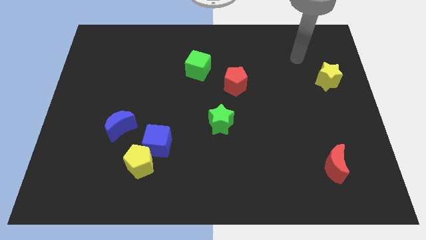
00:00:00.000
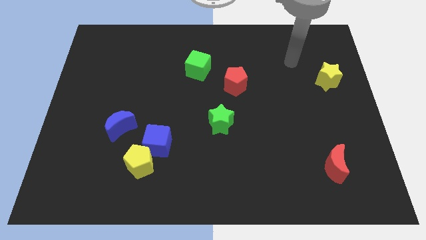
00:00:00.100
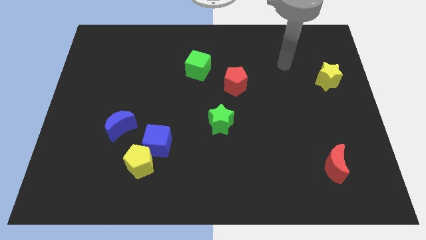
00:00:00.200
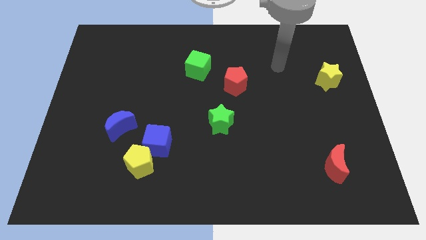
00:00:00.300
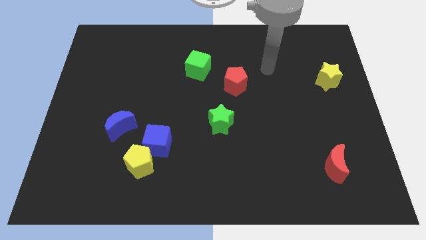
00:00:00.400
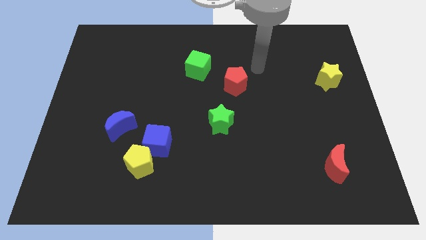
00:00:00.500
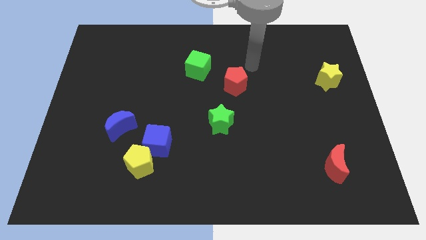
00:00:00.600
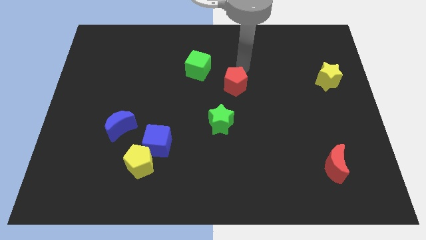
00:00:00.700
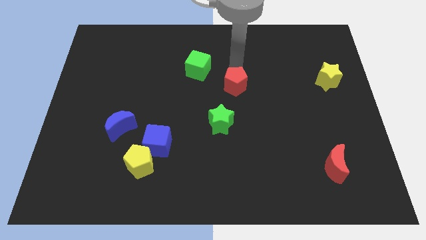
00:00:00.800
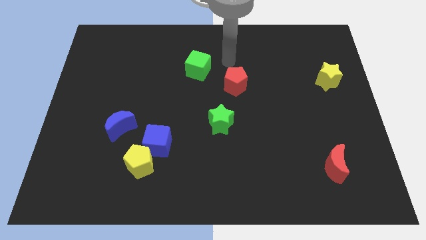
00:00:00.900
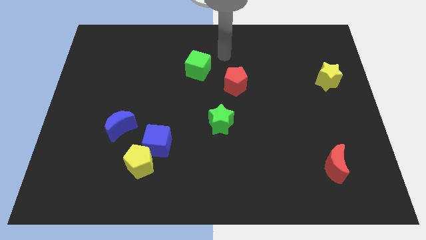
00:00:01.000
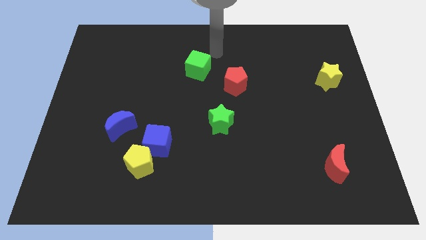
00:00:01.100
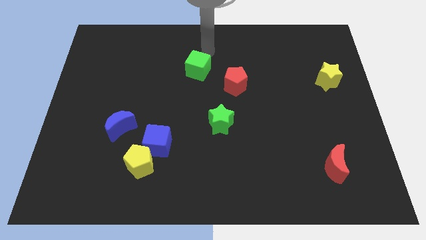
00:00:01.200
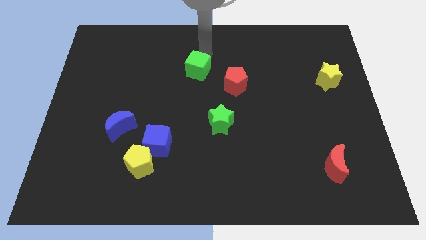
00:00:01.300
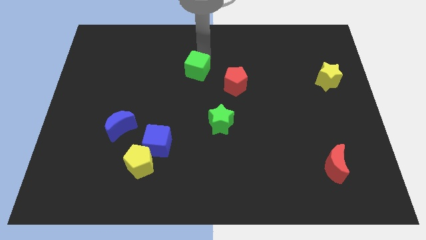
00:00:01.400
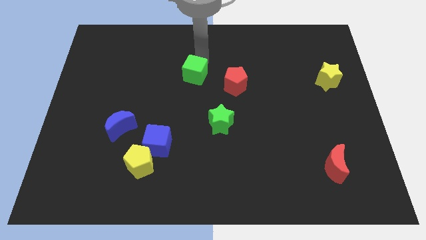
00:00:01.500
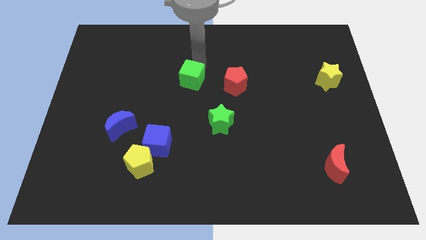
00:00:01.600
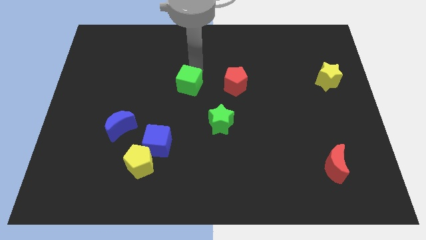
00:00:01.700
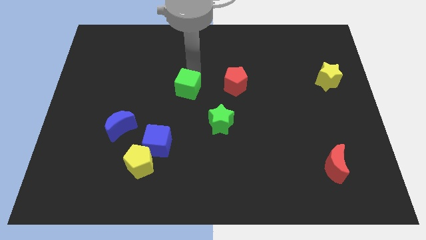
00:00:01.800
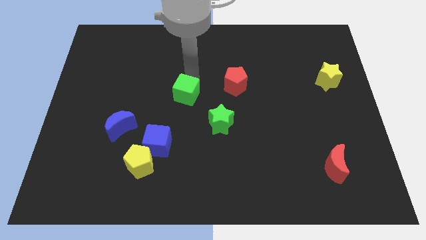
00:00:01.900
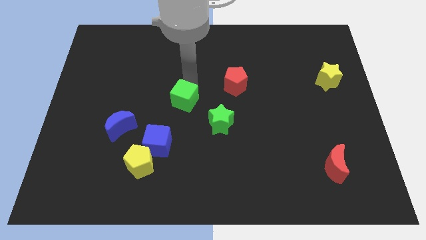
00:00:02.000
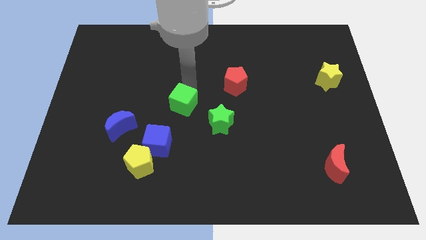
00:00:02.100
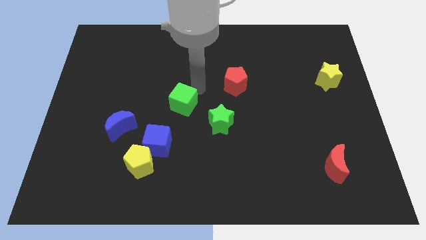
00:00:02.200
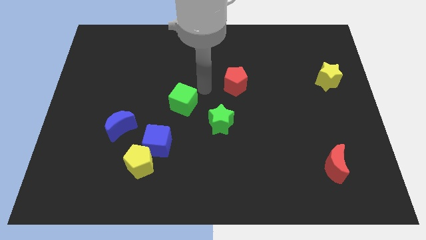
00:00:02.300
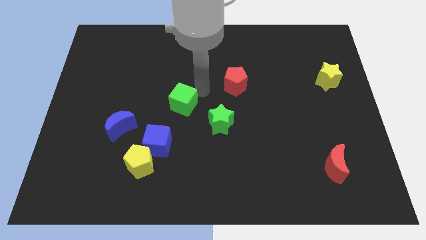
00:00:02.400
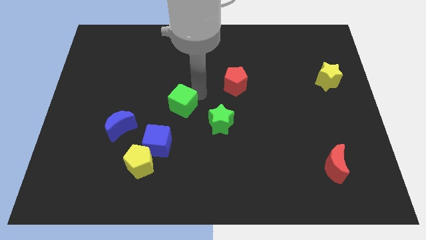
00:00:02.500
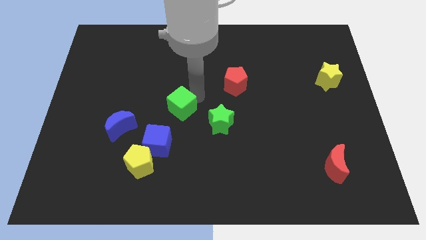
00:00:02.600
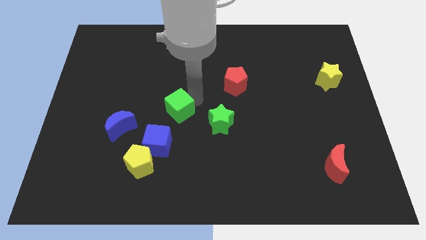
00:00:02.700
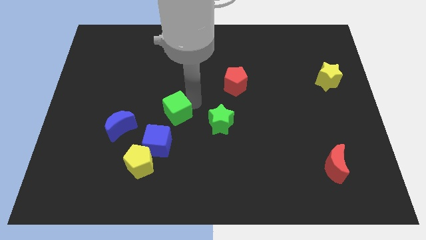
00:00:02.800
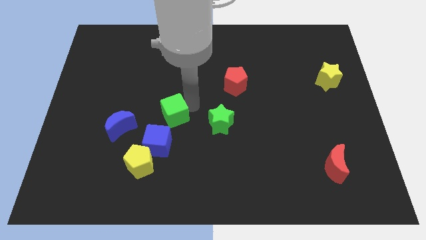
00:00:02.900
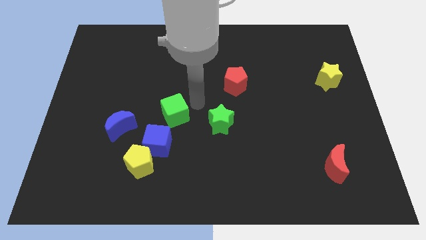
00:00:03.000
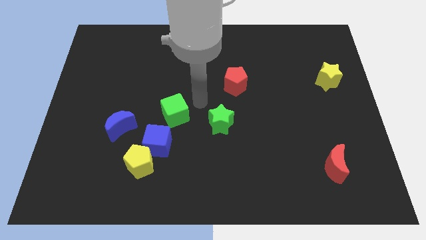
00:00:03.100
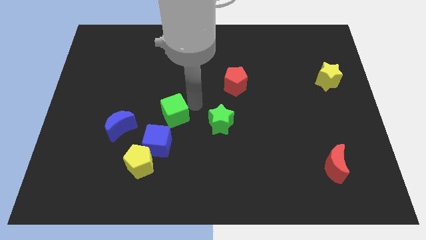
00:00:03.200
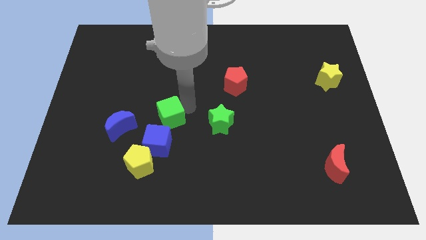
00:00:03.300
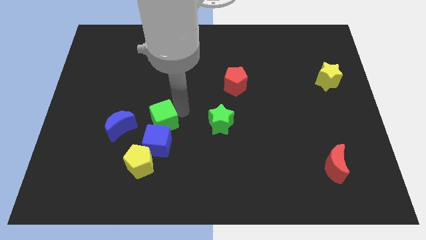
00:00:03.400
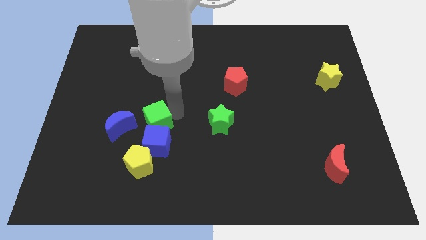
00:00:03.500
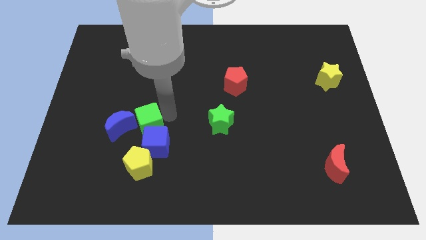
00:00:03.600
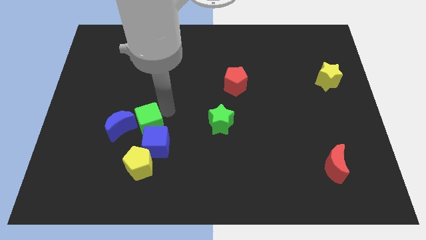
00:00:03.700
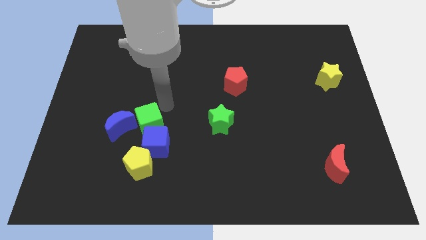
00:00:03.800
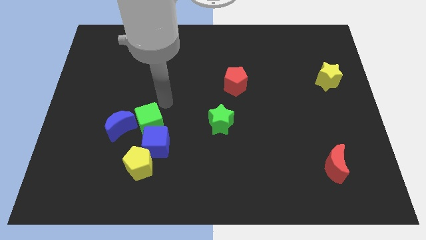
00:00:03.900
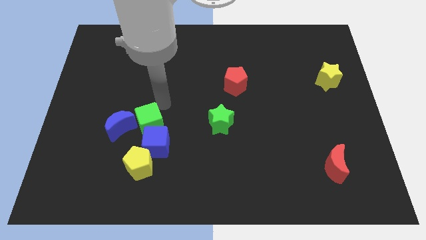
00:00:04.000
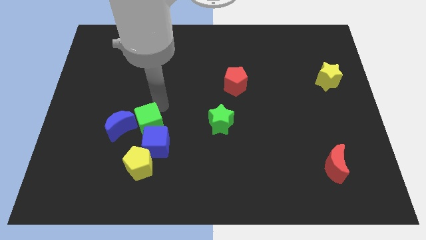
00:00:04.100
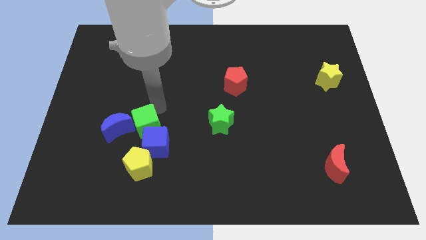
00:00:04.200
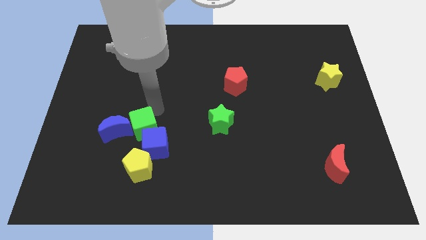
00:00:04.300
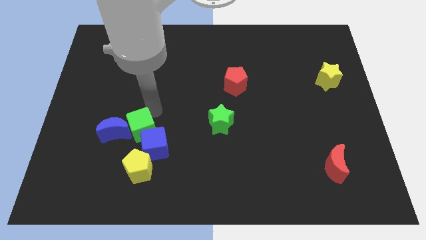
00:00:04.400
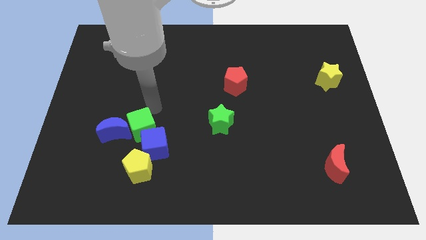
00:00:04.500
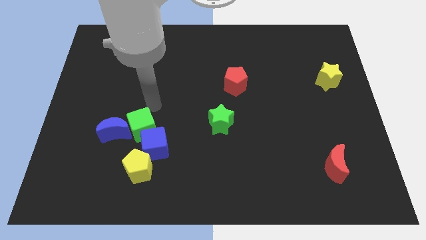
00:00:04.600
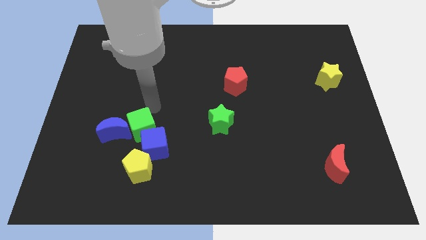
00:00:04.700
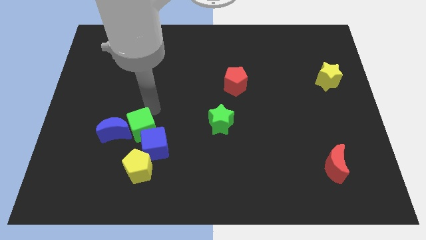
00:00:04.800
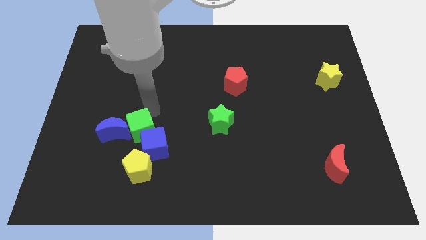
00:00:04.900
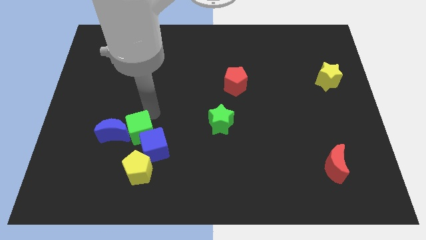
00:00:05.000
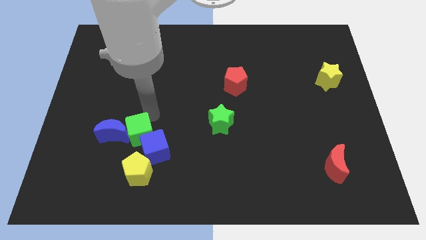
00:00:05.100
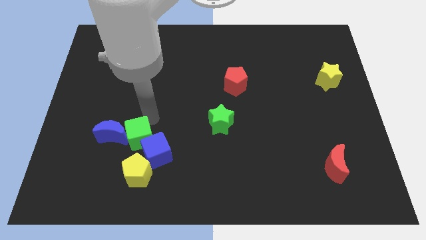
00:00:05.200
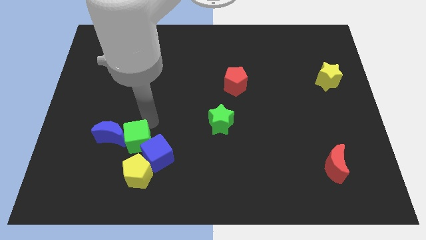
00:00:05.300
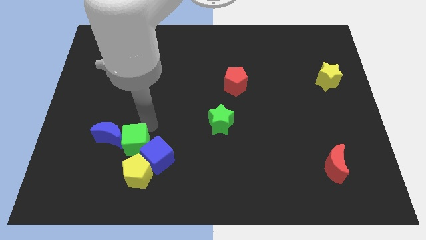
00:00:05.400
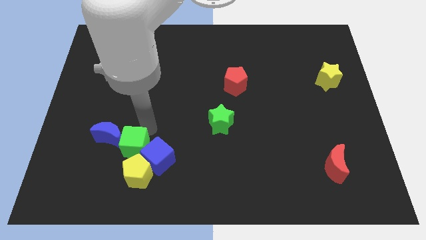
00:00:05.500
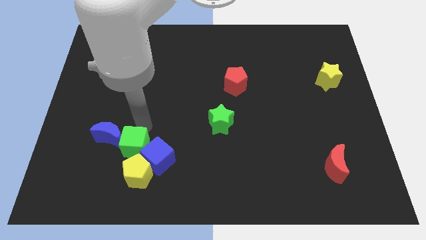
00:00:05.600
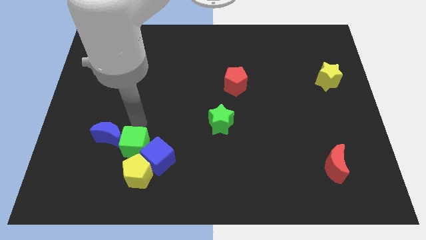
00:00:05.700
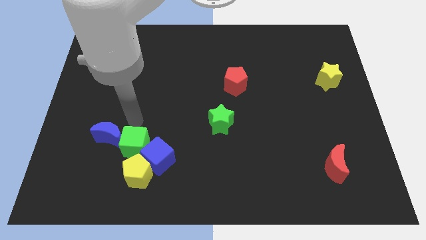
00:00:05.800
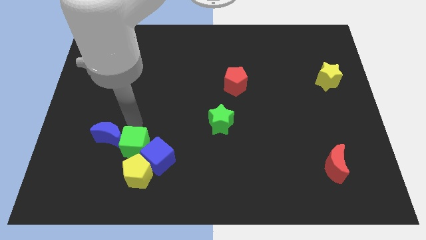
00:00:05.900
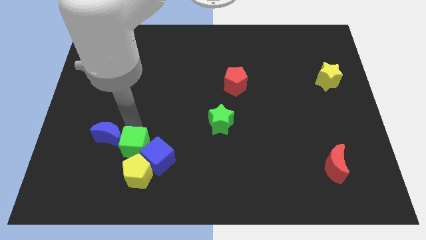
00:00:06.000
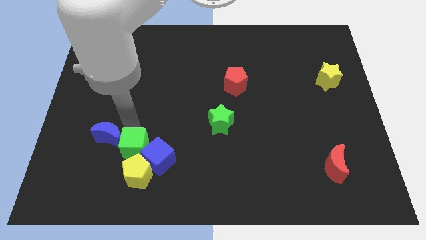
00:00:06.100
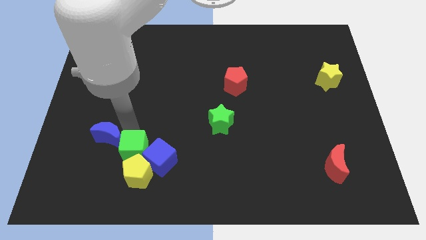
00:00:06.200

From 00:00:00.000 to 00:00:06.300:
slide the green cube next to the yellow pentagon
